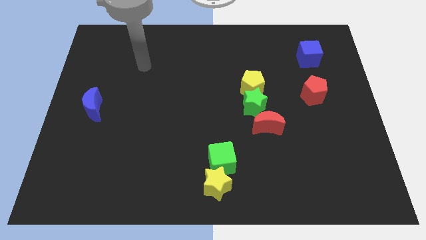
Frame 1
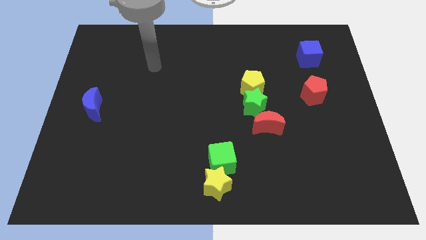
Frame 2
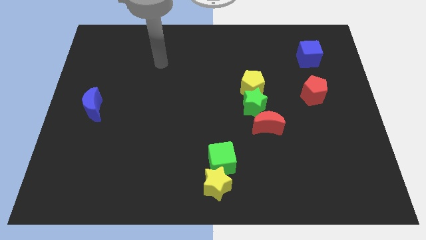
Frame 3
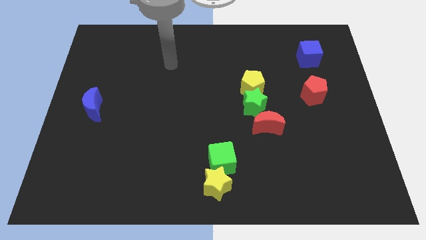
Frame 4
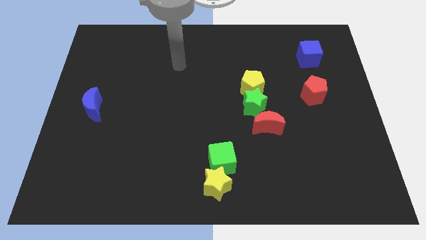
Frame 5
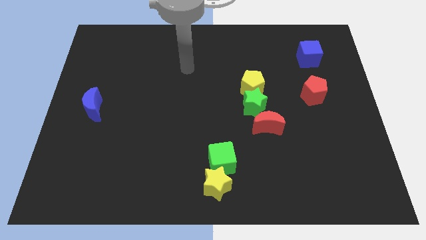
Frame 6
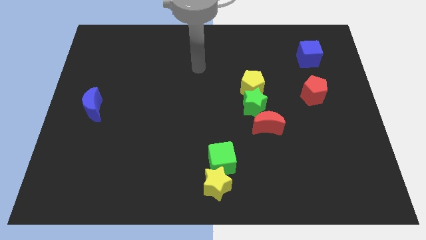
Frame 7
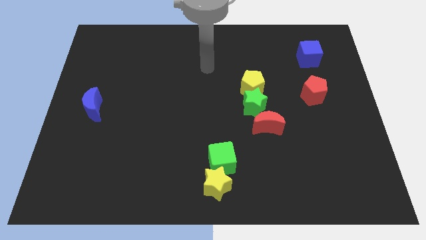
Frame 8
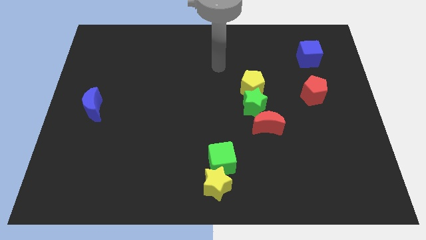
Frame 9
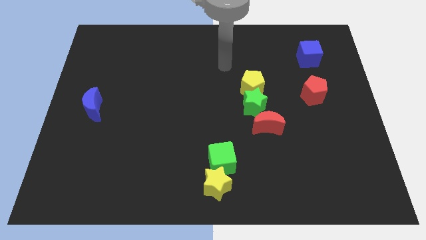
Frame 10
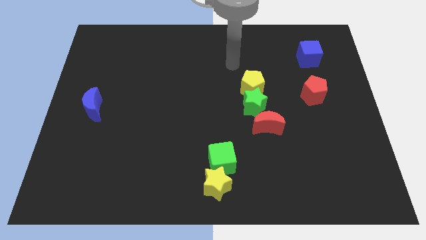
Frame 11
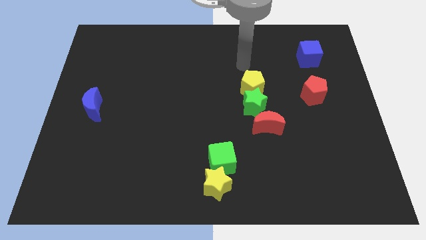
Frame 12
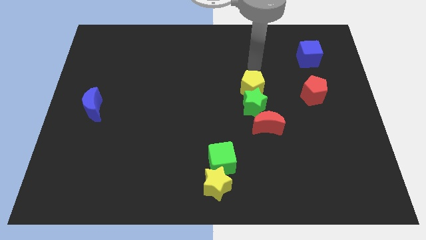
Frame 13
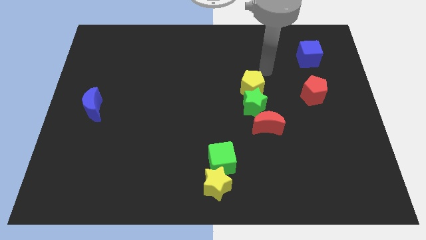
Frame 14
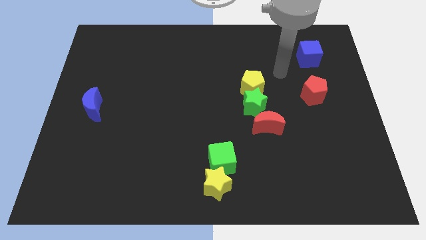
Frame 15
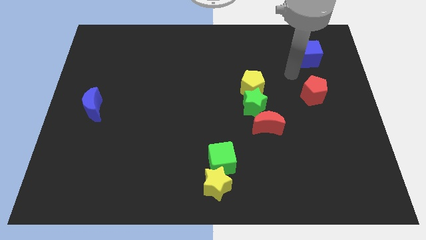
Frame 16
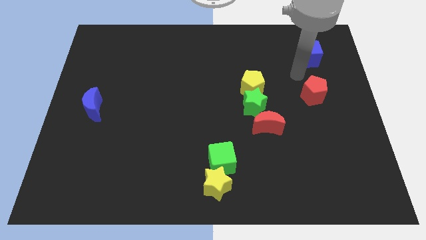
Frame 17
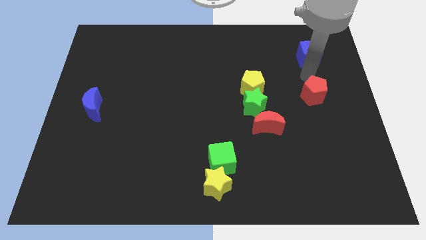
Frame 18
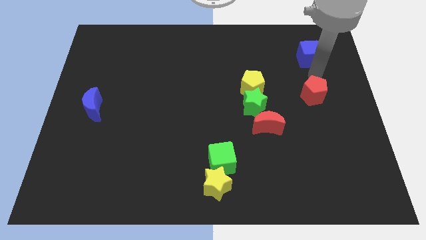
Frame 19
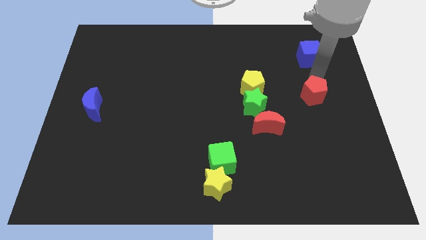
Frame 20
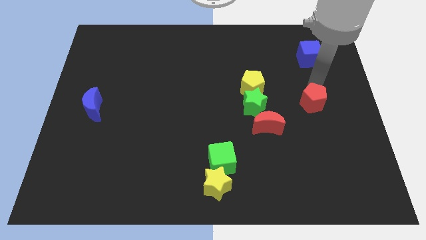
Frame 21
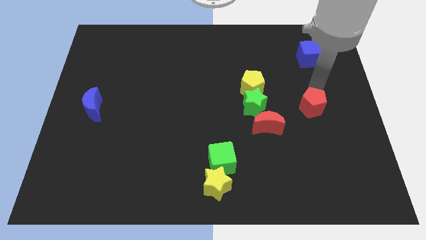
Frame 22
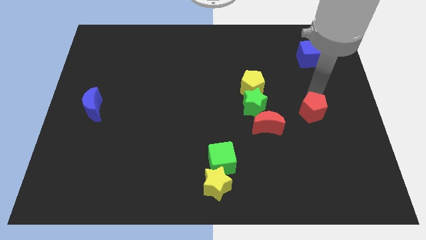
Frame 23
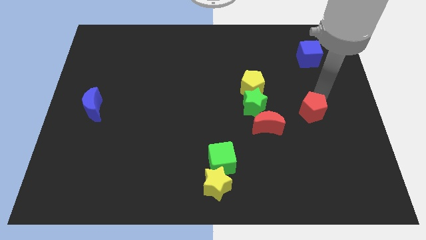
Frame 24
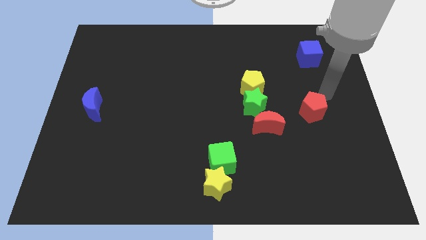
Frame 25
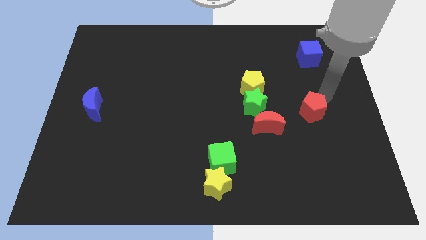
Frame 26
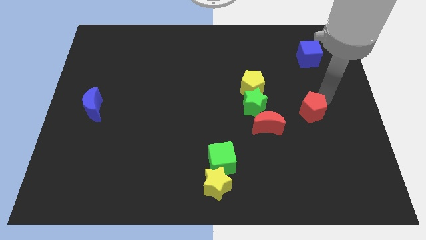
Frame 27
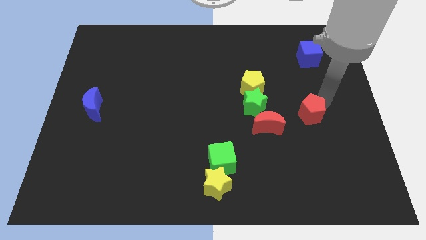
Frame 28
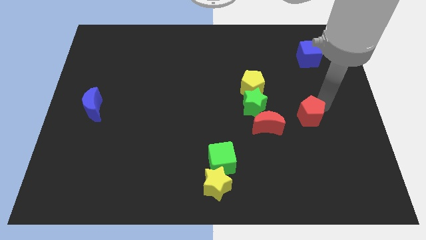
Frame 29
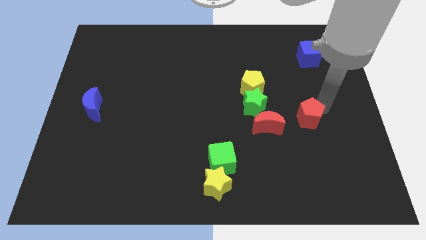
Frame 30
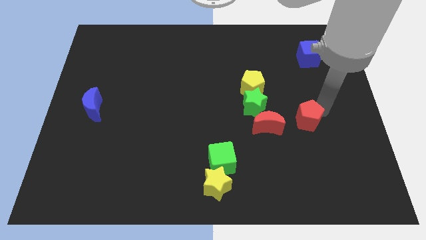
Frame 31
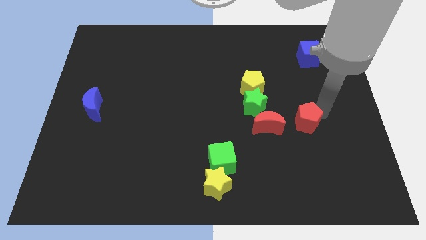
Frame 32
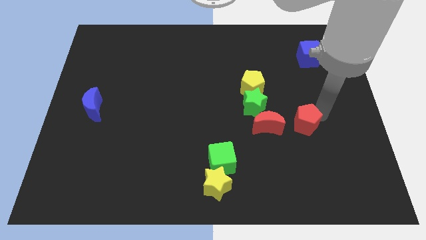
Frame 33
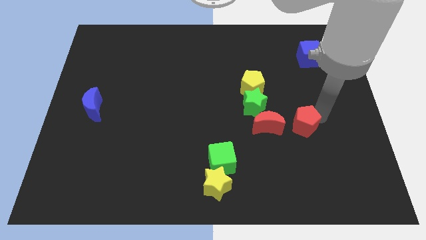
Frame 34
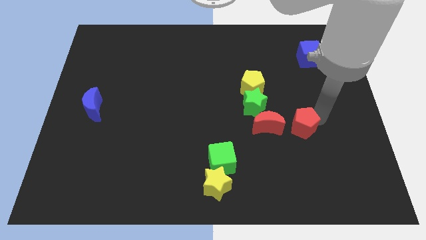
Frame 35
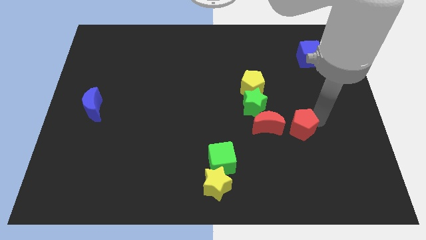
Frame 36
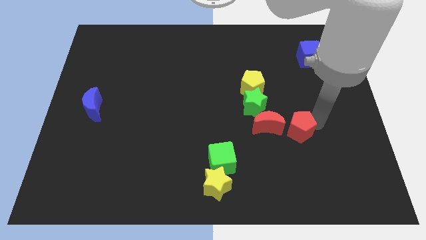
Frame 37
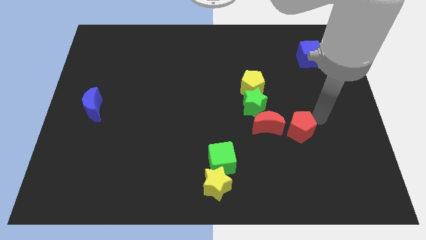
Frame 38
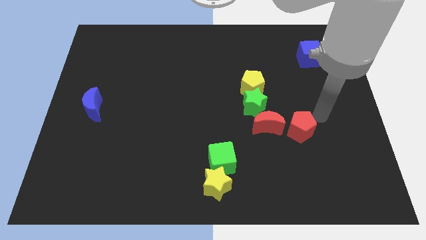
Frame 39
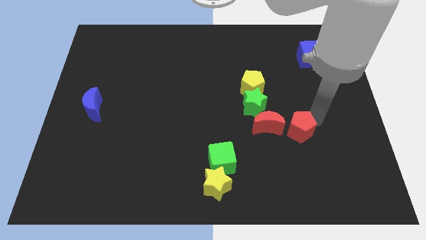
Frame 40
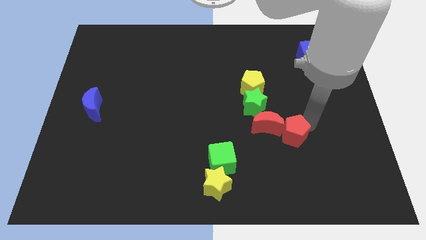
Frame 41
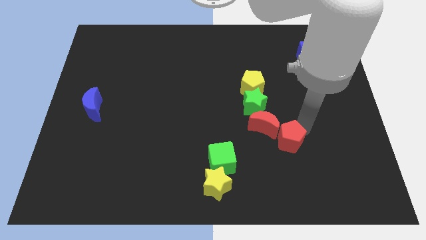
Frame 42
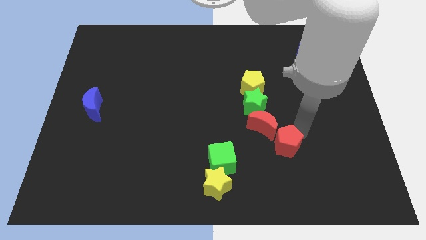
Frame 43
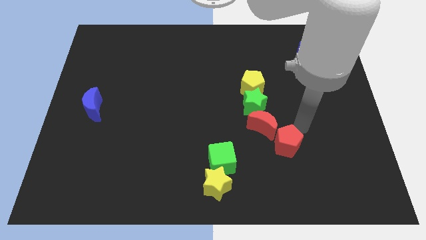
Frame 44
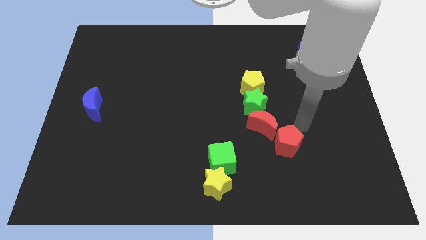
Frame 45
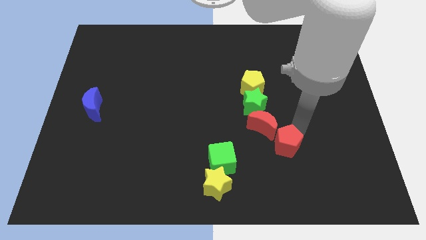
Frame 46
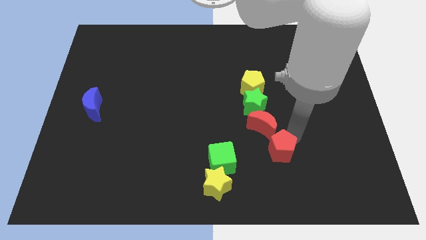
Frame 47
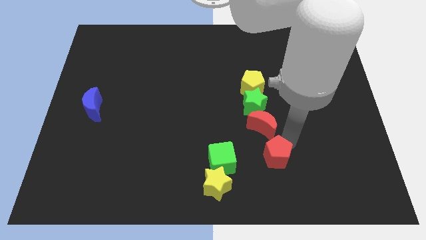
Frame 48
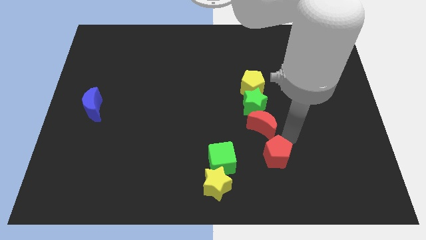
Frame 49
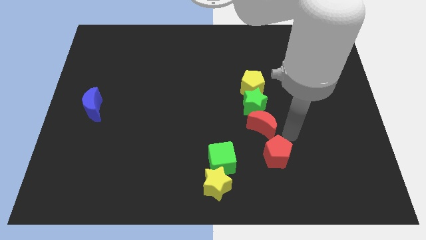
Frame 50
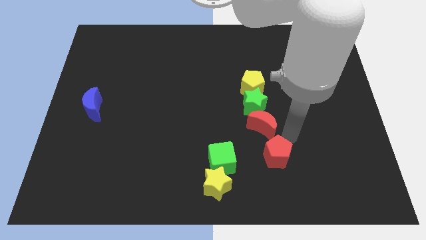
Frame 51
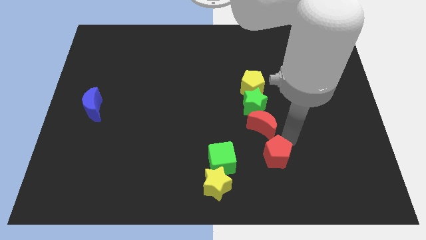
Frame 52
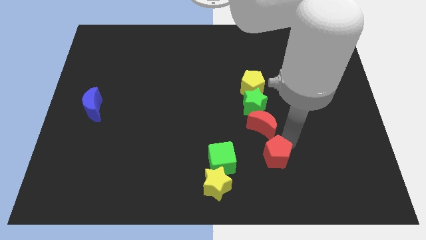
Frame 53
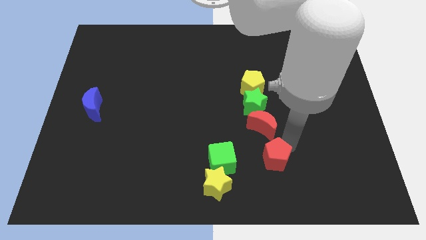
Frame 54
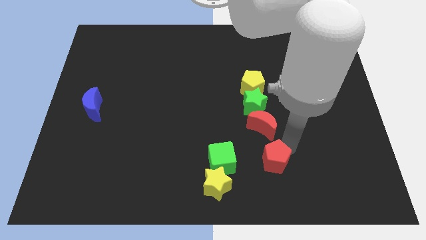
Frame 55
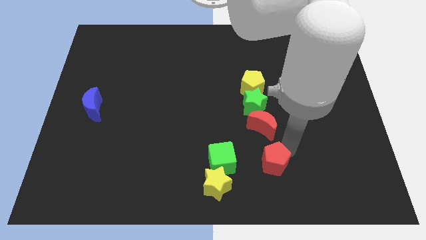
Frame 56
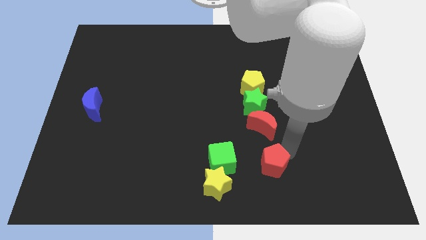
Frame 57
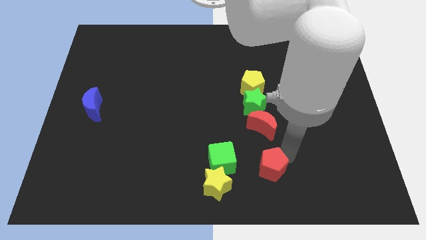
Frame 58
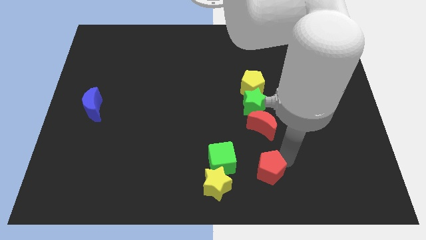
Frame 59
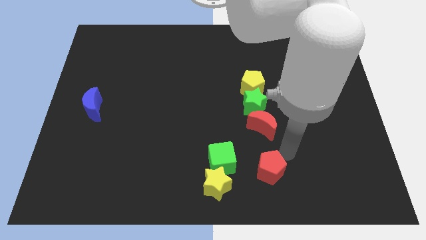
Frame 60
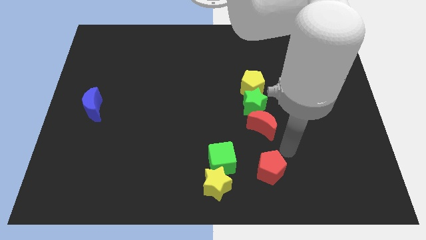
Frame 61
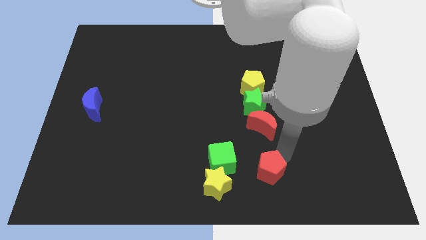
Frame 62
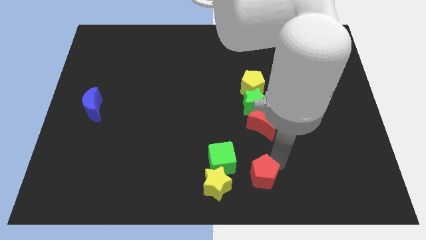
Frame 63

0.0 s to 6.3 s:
push the red pentagon to the bottom side
